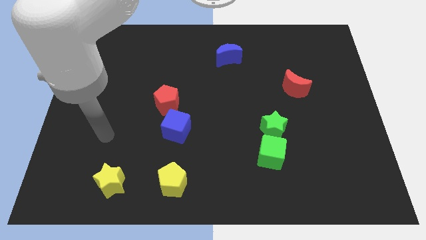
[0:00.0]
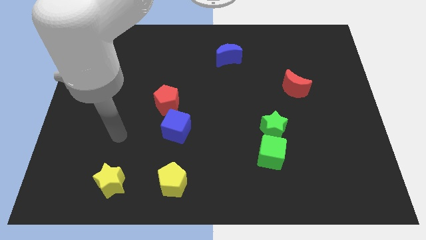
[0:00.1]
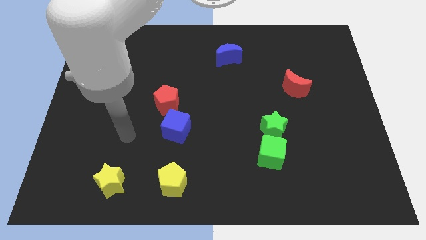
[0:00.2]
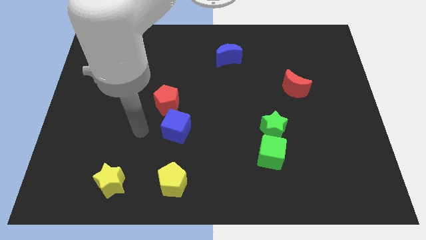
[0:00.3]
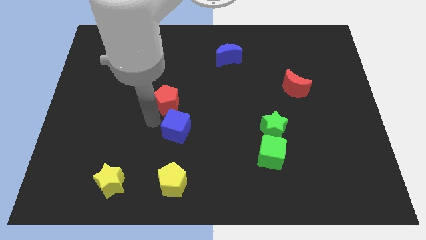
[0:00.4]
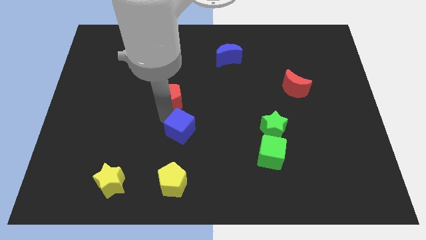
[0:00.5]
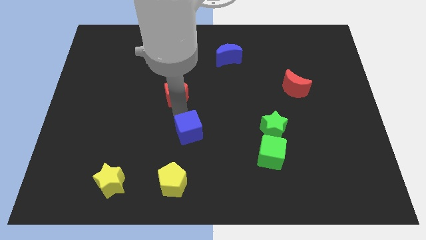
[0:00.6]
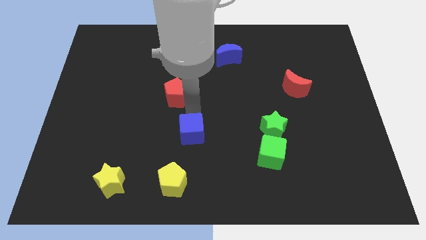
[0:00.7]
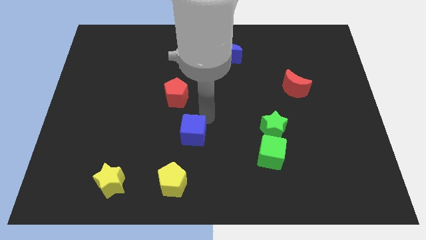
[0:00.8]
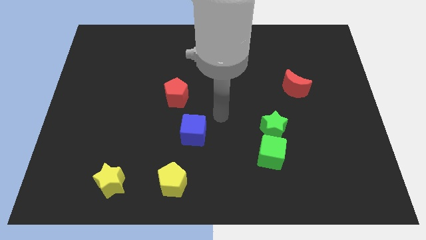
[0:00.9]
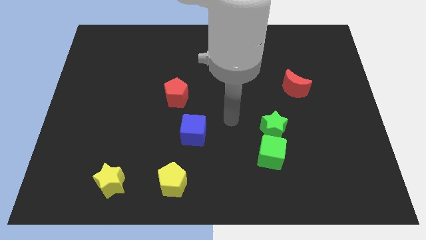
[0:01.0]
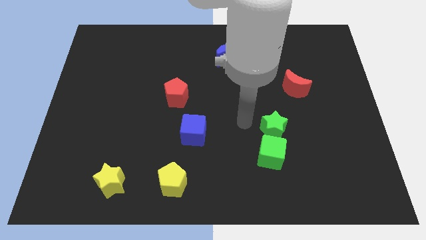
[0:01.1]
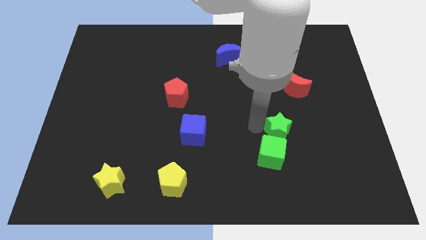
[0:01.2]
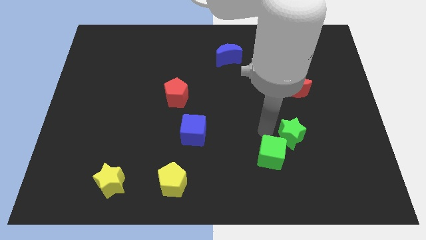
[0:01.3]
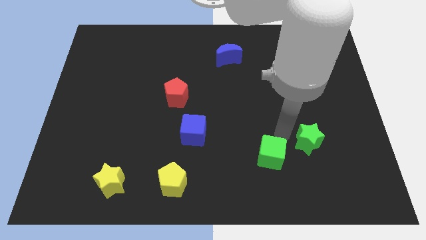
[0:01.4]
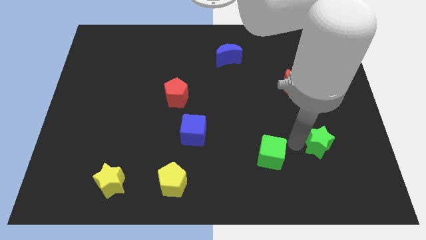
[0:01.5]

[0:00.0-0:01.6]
separate the green cube from the green star

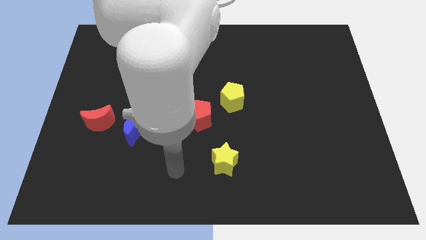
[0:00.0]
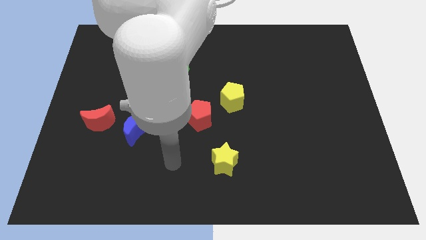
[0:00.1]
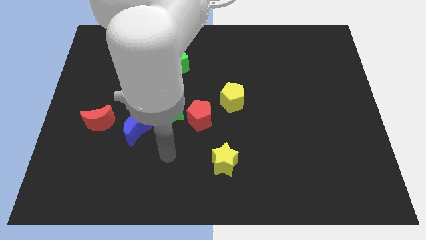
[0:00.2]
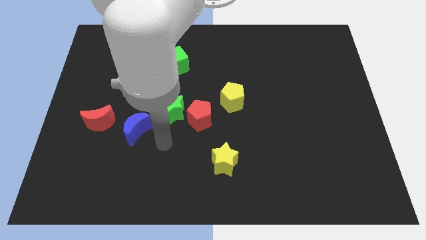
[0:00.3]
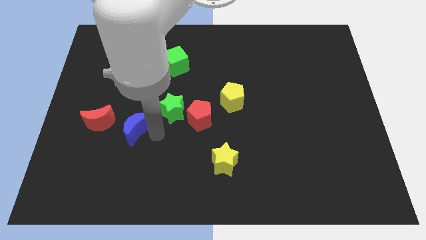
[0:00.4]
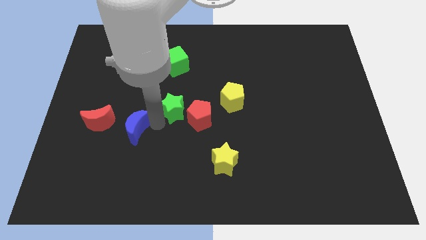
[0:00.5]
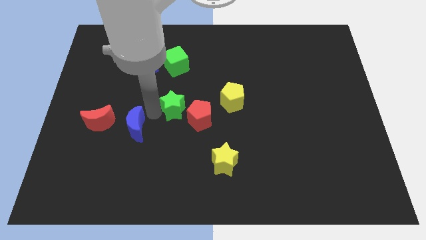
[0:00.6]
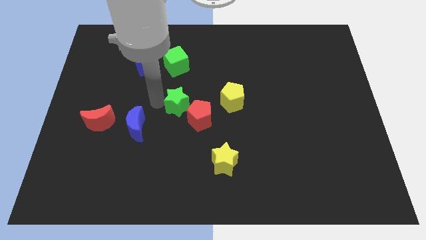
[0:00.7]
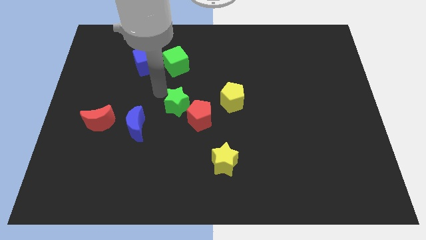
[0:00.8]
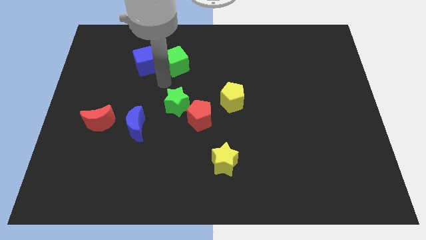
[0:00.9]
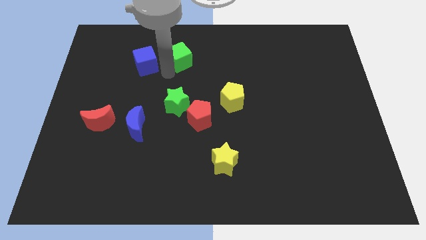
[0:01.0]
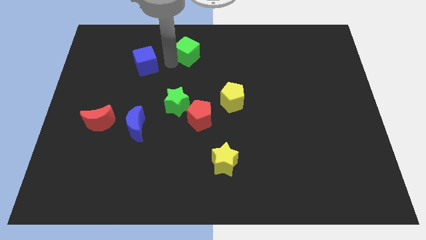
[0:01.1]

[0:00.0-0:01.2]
separate the blue cube from the green cube

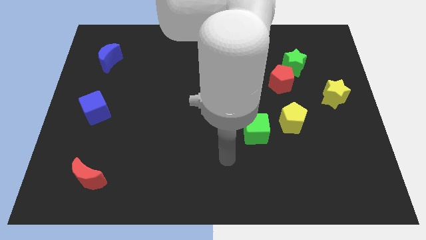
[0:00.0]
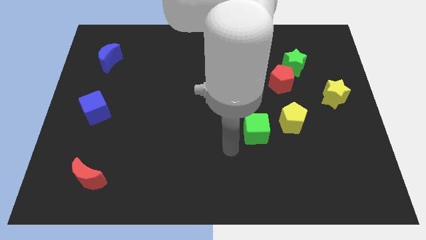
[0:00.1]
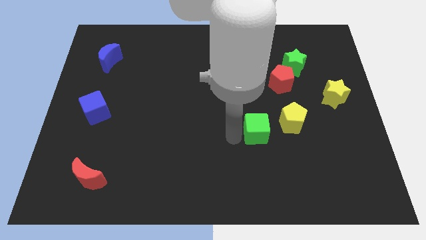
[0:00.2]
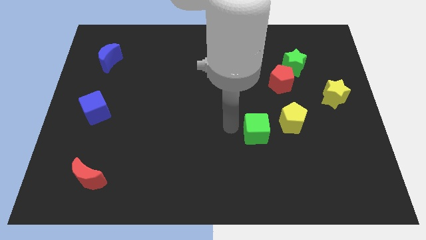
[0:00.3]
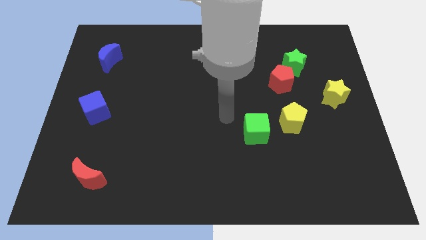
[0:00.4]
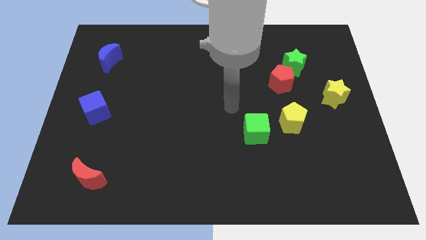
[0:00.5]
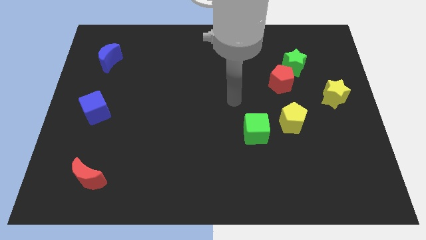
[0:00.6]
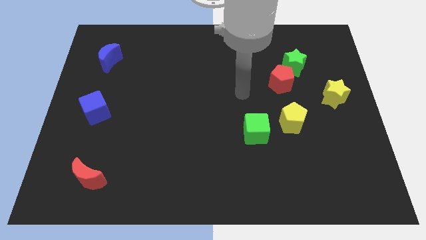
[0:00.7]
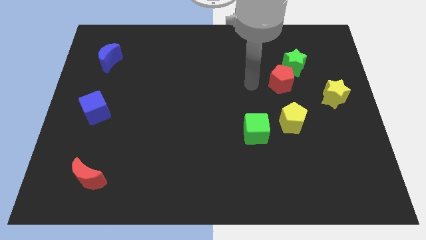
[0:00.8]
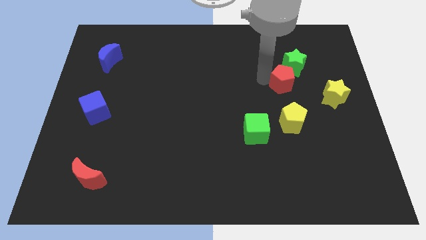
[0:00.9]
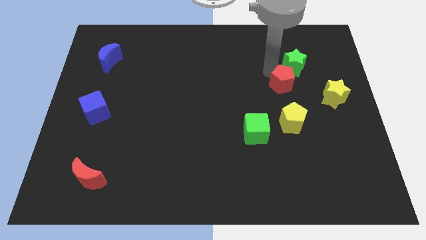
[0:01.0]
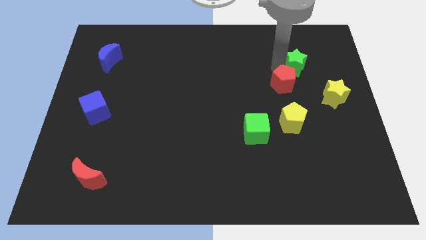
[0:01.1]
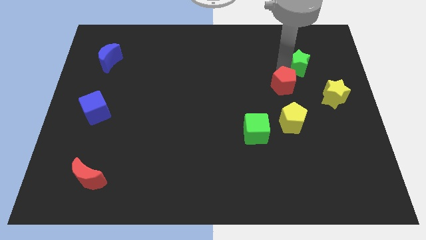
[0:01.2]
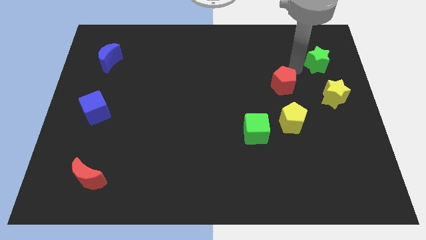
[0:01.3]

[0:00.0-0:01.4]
pull the red pentagon apart from the green star

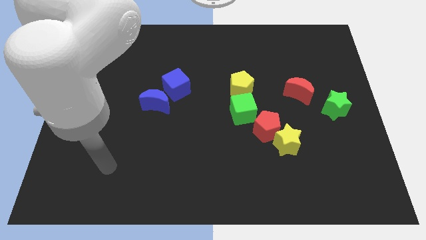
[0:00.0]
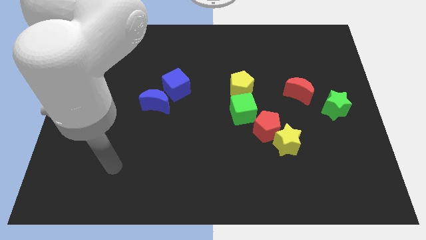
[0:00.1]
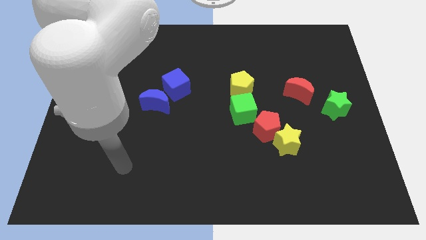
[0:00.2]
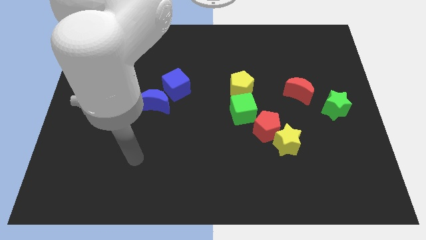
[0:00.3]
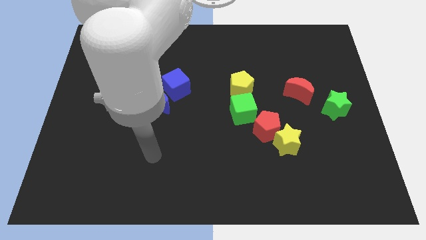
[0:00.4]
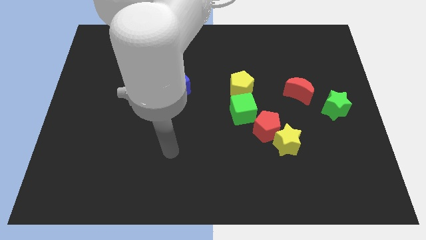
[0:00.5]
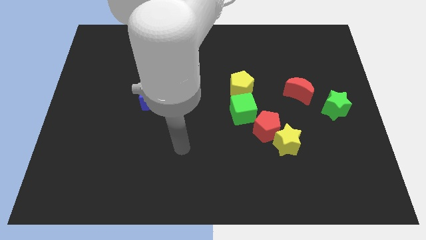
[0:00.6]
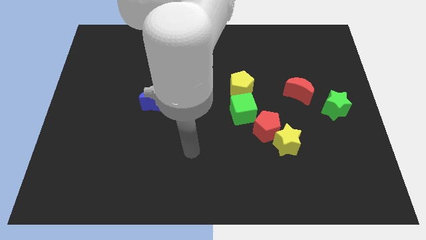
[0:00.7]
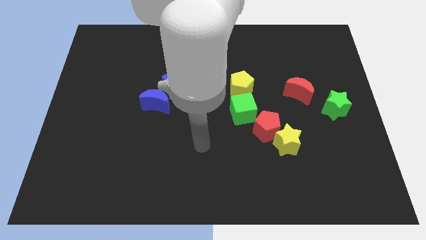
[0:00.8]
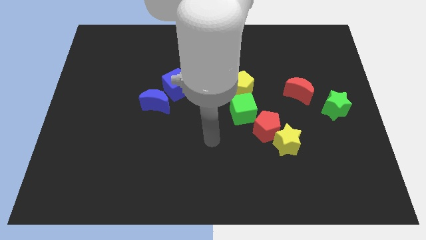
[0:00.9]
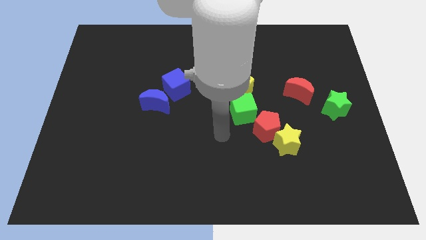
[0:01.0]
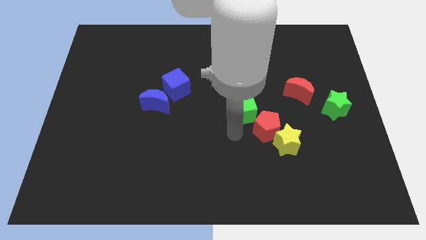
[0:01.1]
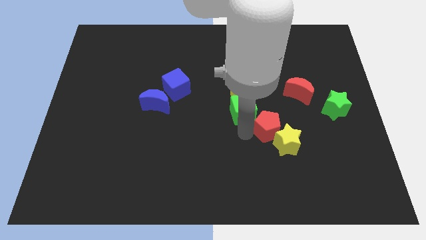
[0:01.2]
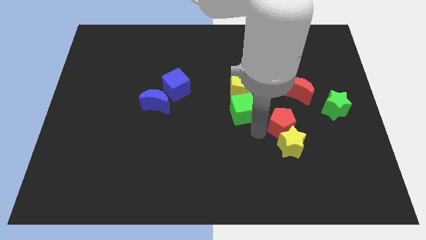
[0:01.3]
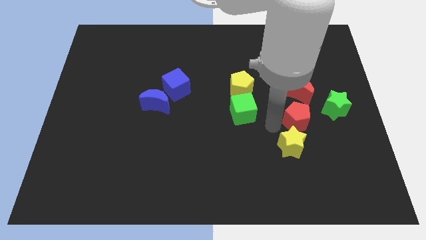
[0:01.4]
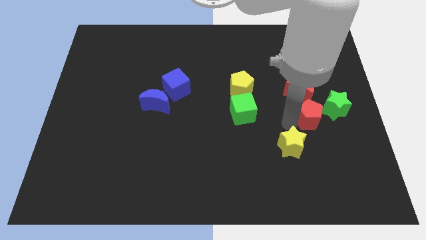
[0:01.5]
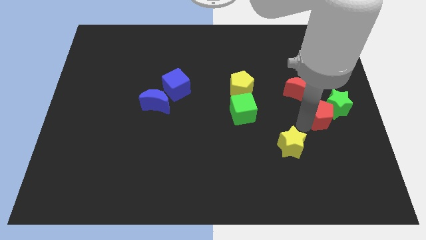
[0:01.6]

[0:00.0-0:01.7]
move the yellow star away from the red pentagon

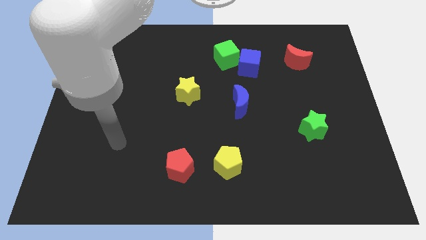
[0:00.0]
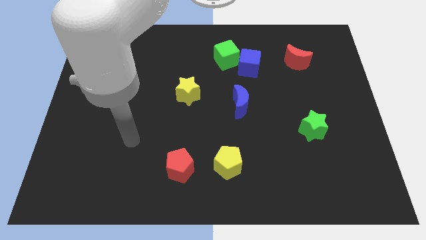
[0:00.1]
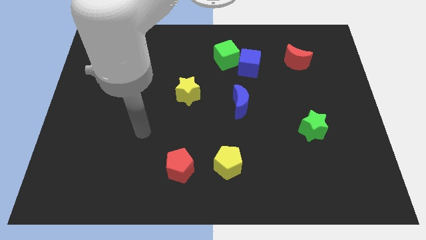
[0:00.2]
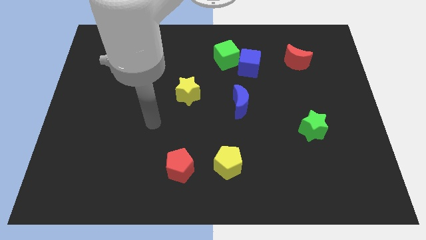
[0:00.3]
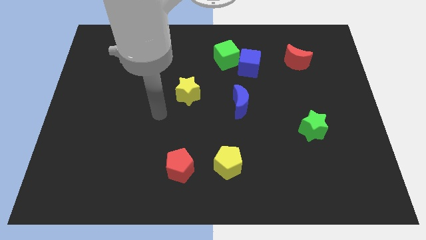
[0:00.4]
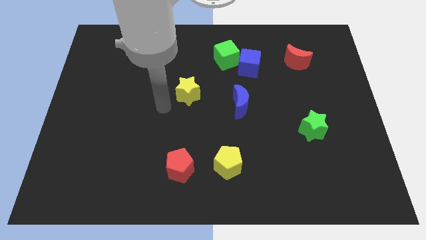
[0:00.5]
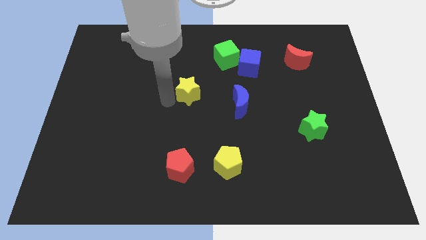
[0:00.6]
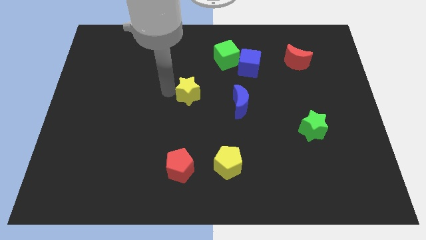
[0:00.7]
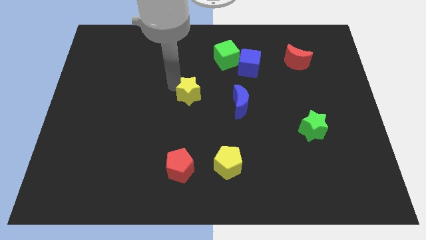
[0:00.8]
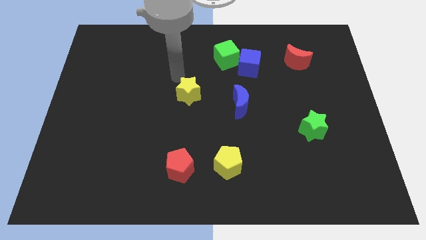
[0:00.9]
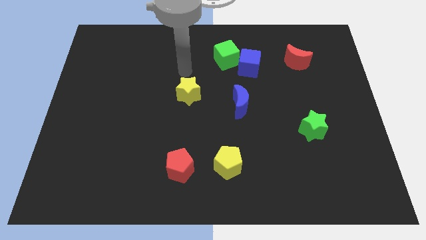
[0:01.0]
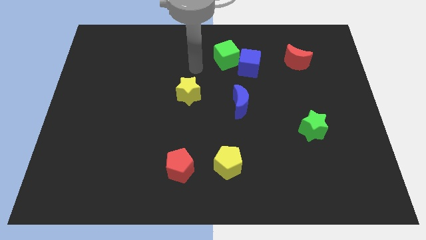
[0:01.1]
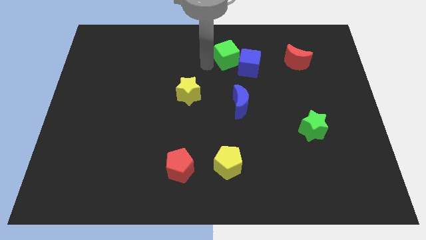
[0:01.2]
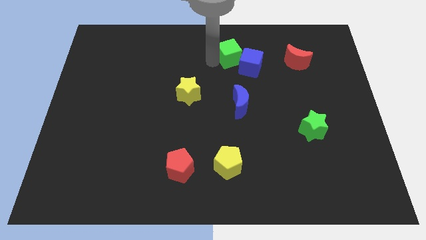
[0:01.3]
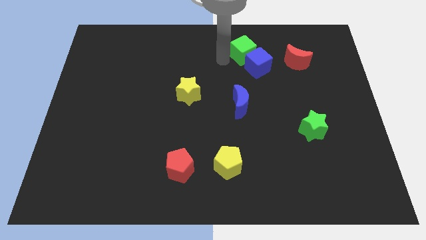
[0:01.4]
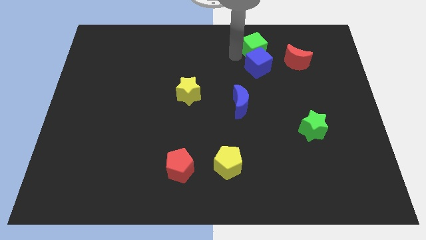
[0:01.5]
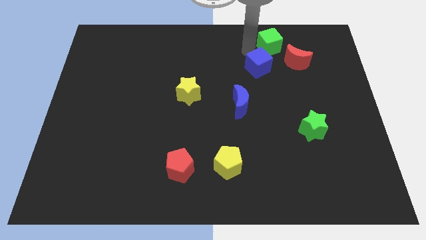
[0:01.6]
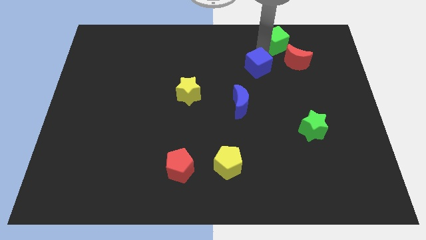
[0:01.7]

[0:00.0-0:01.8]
pull the blue cube apart from the green cube

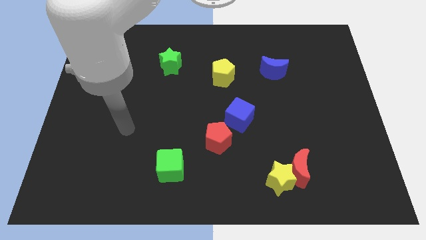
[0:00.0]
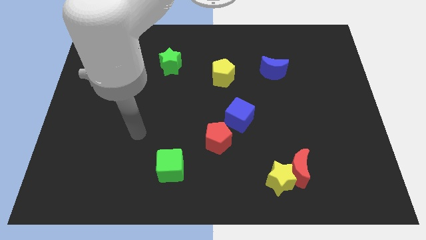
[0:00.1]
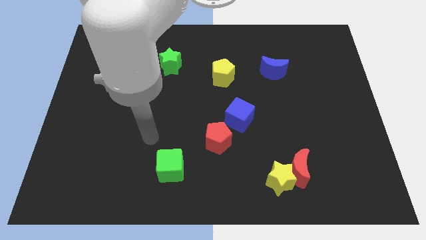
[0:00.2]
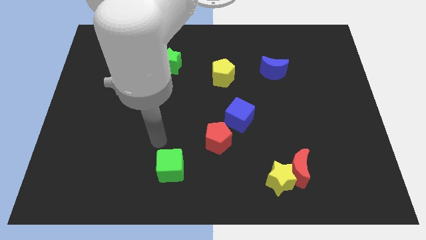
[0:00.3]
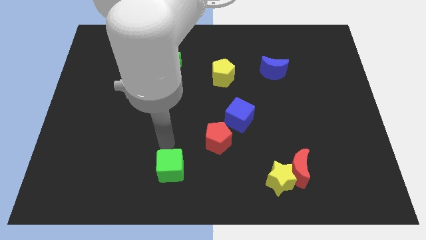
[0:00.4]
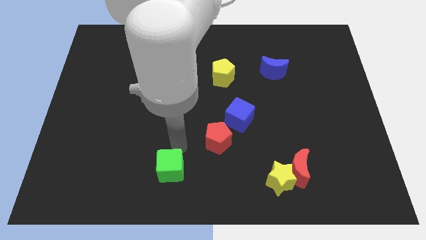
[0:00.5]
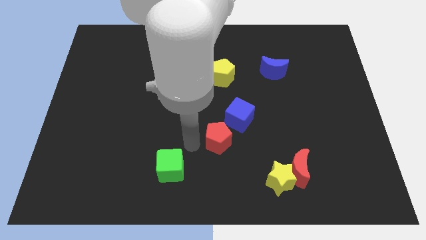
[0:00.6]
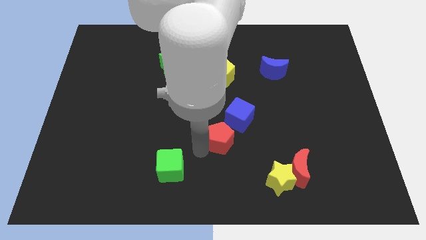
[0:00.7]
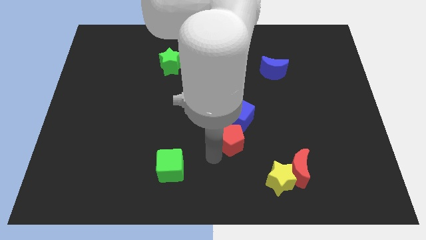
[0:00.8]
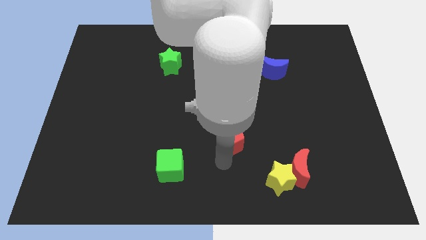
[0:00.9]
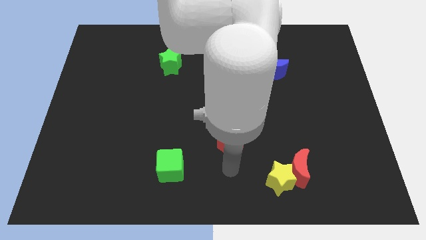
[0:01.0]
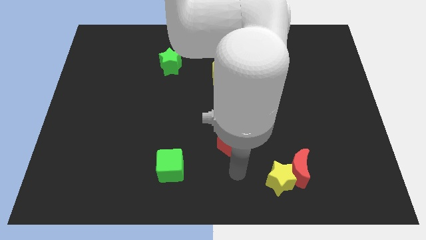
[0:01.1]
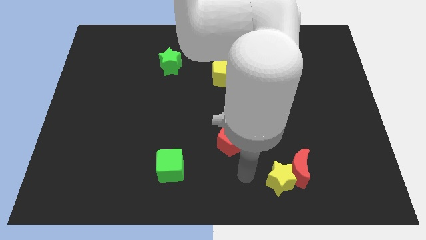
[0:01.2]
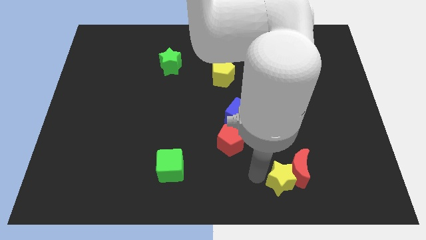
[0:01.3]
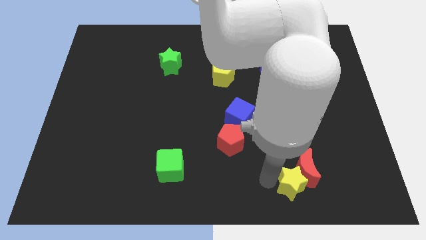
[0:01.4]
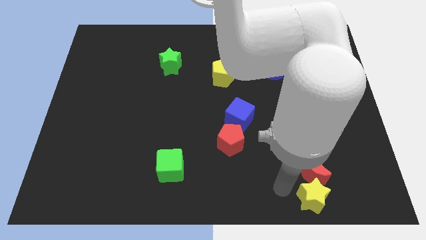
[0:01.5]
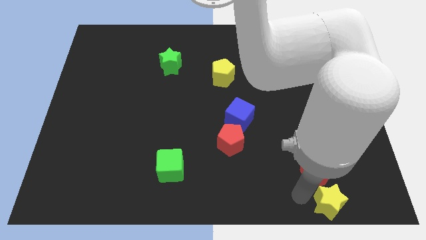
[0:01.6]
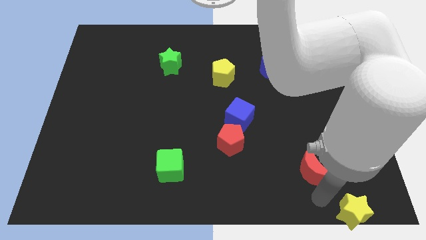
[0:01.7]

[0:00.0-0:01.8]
pull the red moon apart from the yellow star
